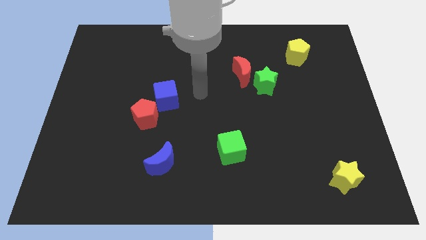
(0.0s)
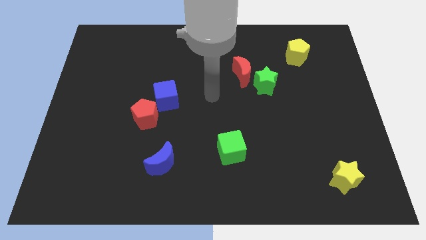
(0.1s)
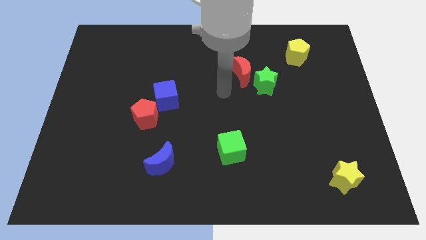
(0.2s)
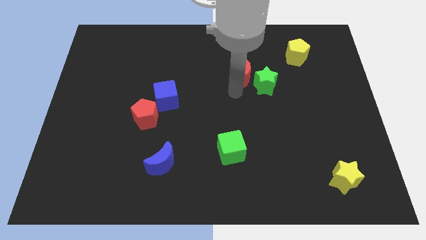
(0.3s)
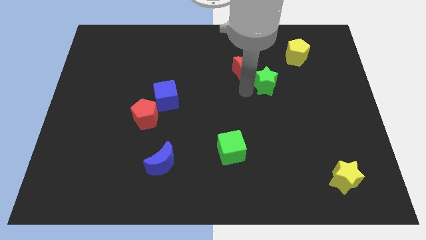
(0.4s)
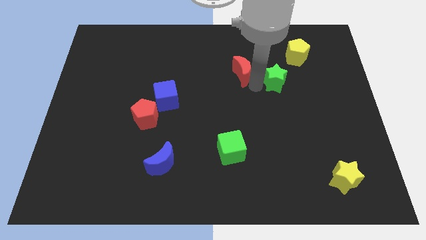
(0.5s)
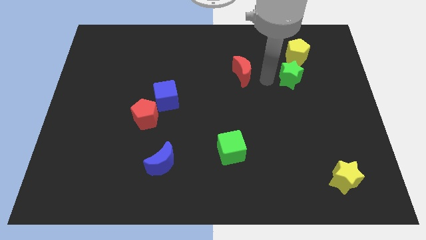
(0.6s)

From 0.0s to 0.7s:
move the red moon away from the green star

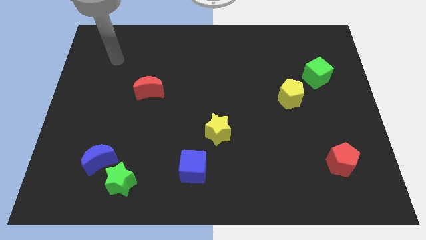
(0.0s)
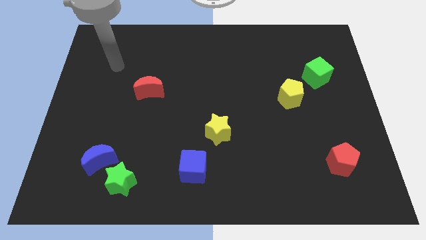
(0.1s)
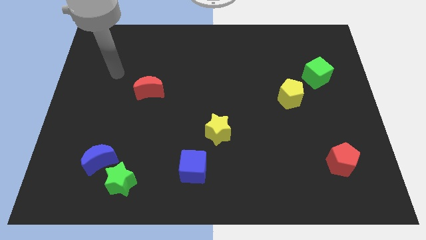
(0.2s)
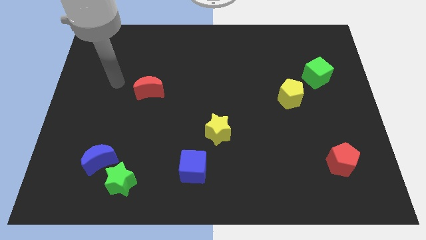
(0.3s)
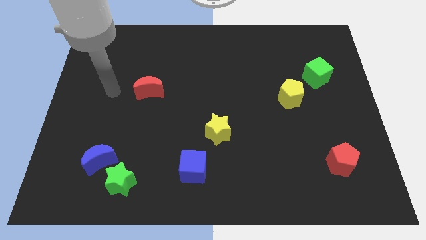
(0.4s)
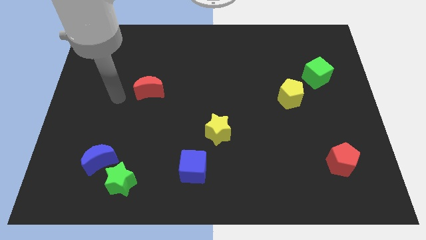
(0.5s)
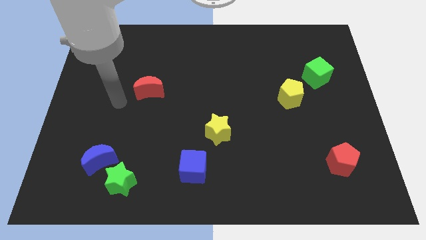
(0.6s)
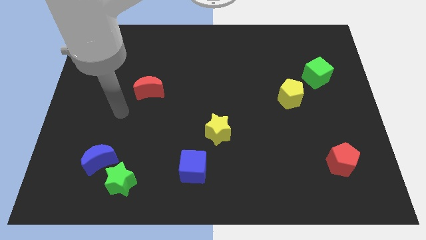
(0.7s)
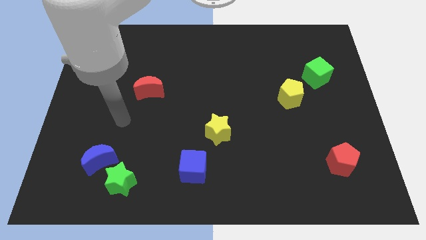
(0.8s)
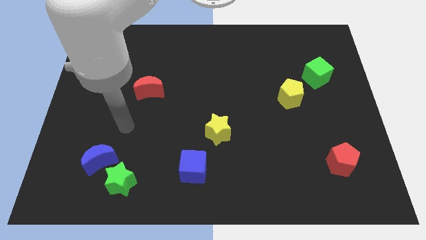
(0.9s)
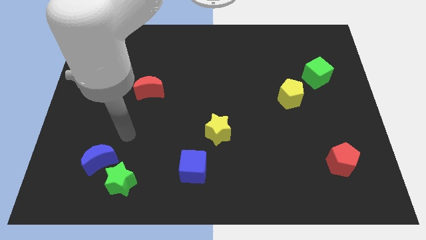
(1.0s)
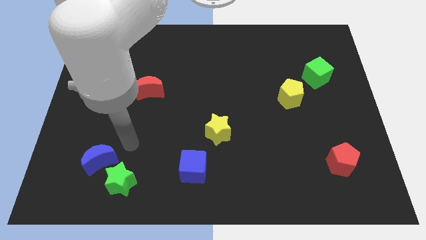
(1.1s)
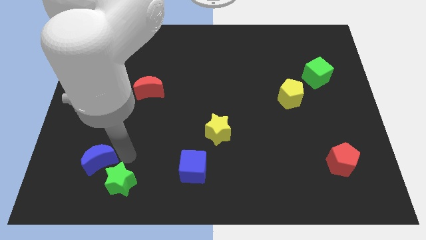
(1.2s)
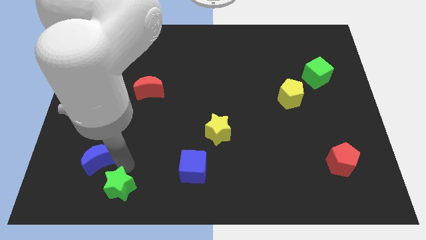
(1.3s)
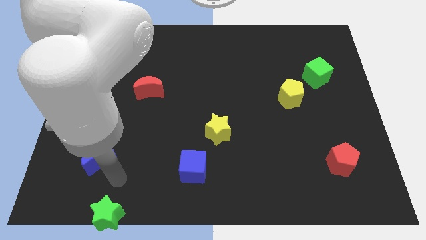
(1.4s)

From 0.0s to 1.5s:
move the blue moon away from the green star

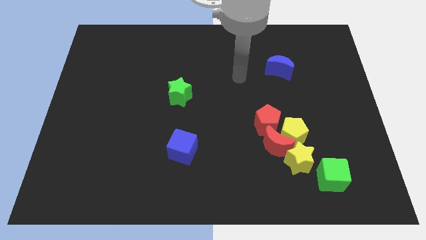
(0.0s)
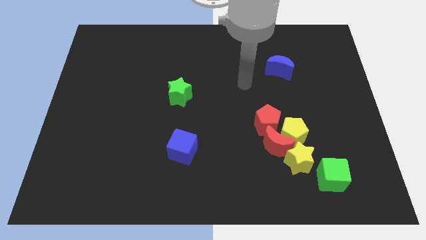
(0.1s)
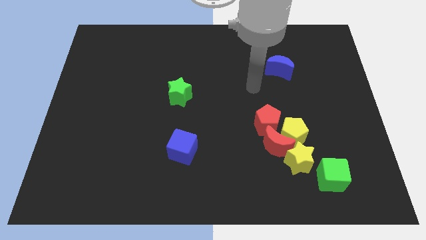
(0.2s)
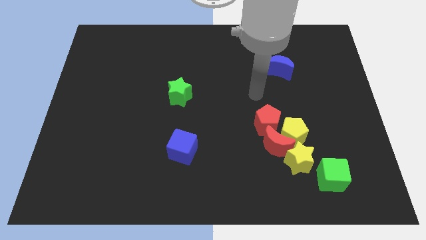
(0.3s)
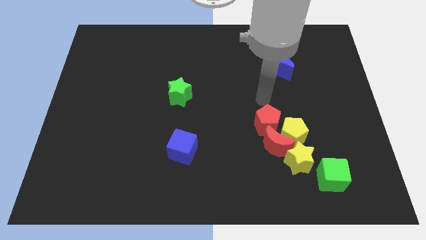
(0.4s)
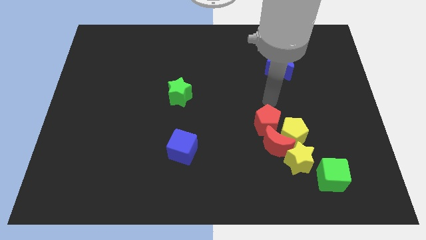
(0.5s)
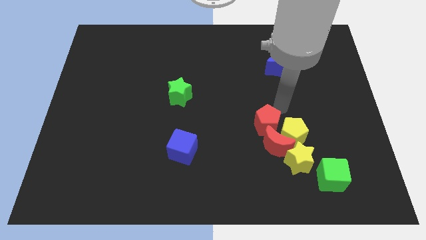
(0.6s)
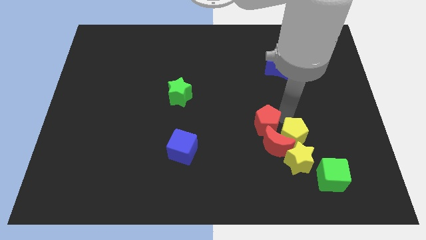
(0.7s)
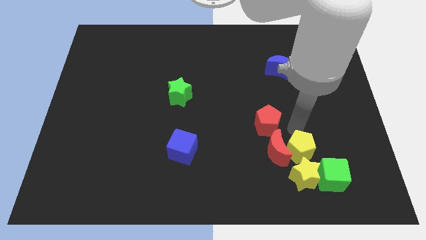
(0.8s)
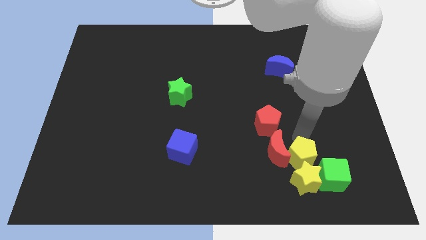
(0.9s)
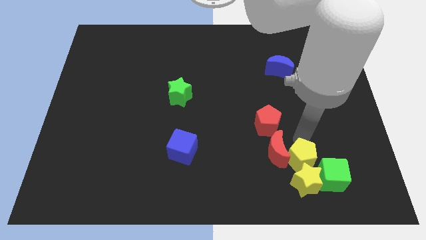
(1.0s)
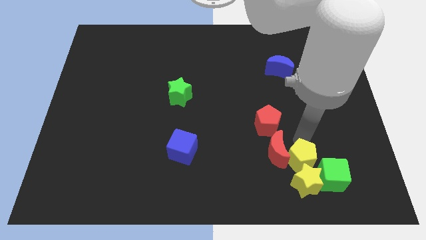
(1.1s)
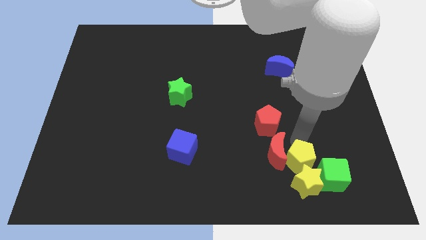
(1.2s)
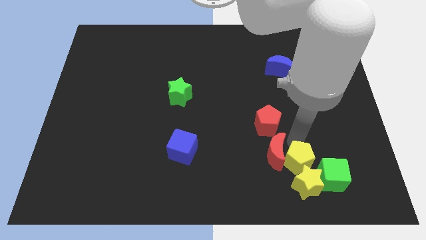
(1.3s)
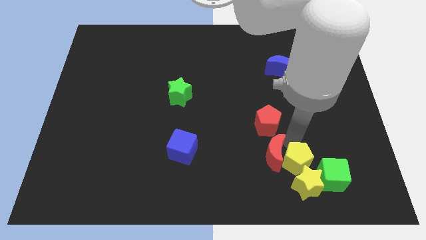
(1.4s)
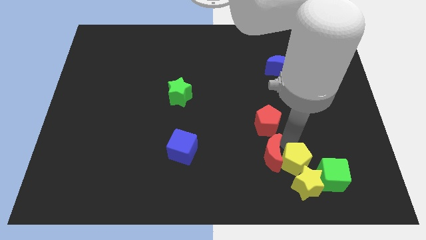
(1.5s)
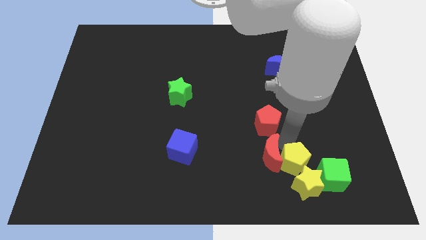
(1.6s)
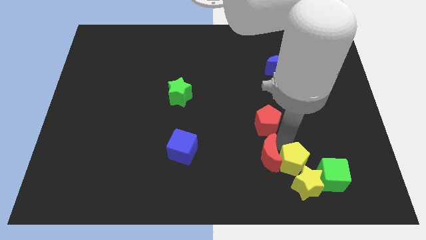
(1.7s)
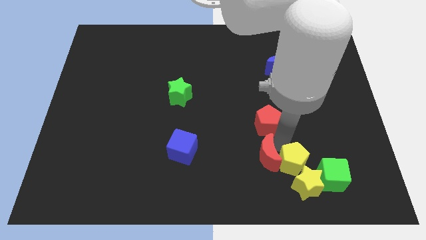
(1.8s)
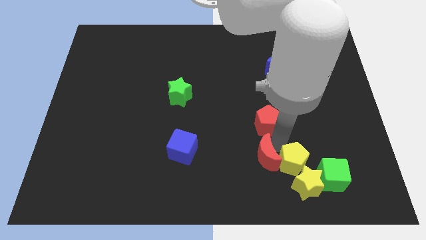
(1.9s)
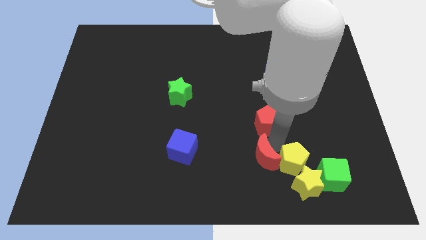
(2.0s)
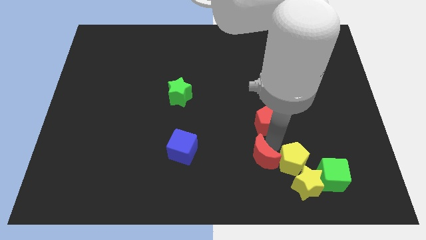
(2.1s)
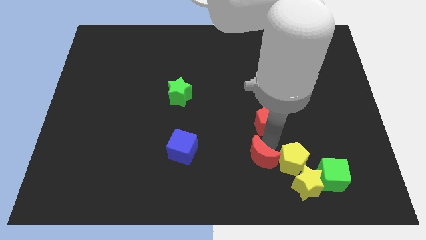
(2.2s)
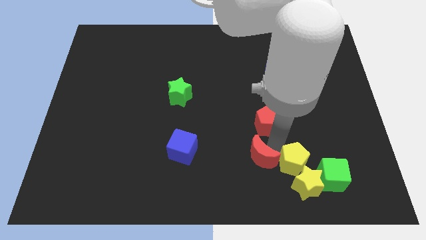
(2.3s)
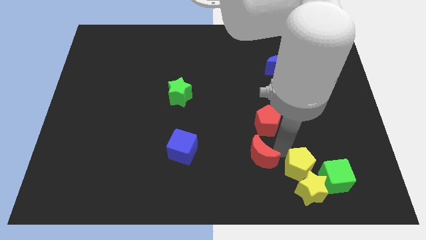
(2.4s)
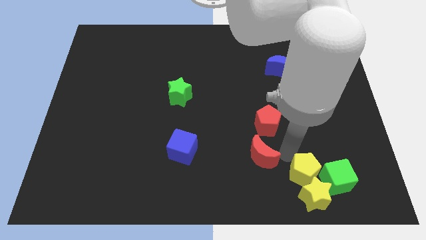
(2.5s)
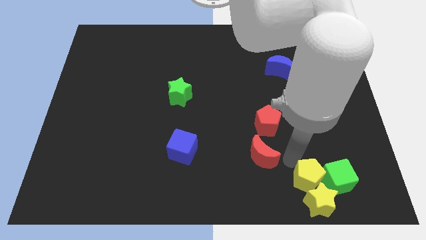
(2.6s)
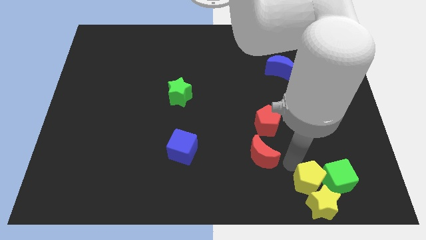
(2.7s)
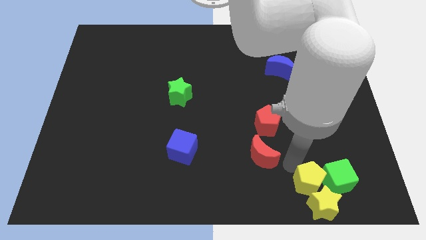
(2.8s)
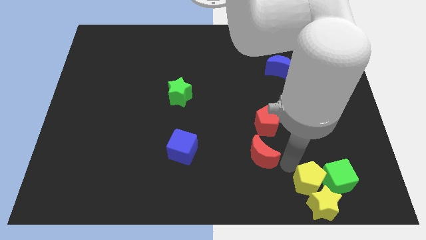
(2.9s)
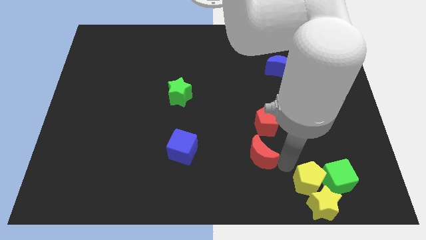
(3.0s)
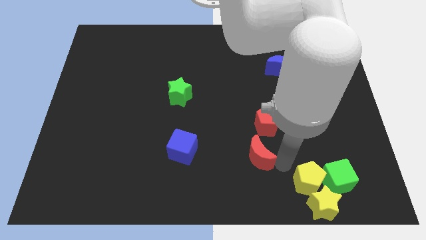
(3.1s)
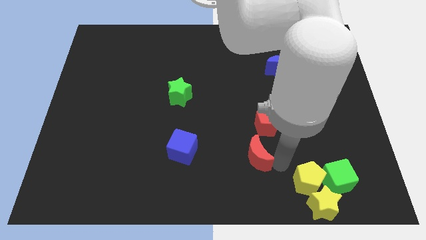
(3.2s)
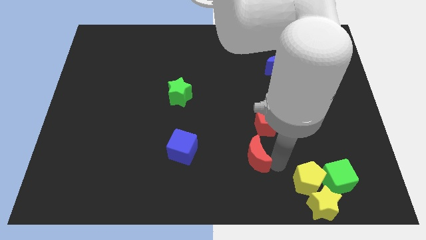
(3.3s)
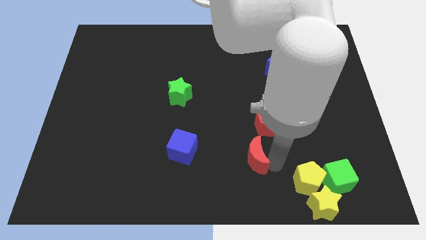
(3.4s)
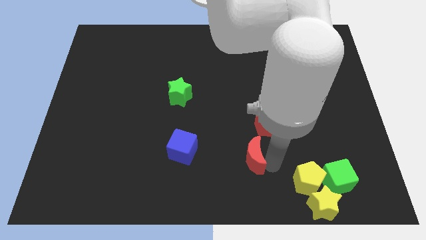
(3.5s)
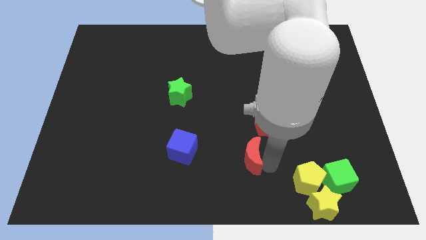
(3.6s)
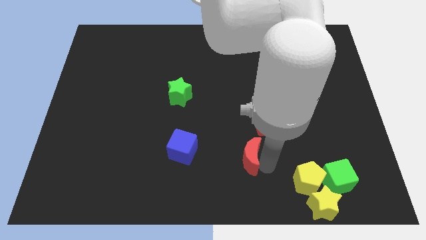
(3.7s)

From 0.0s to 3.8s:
separate the red moon from the group

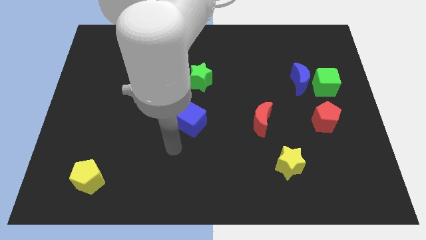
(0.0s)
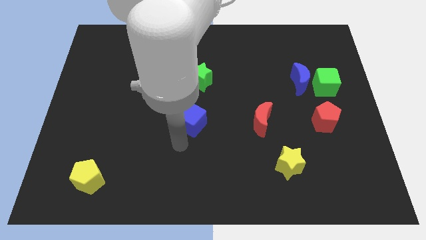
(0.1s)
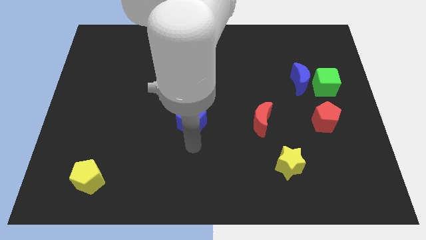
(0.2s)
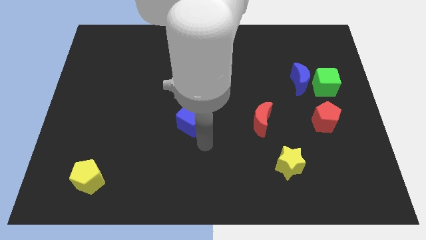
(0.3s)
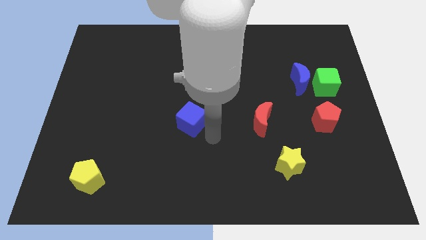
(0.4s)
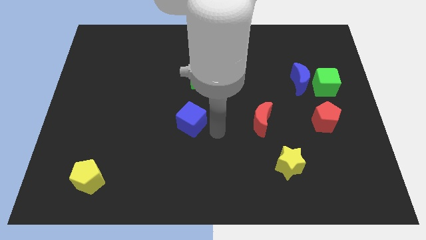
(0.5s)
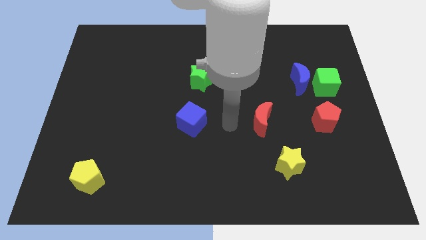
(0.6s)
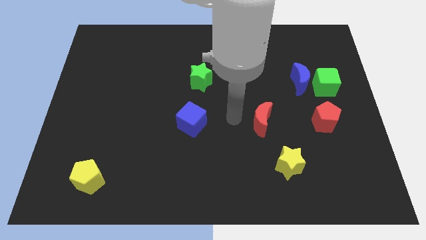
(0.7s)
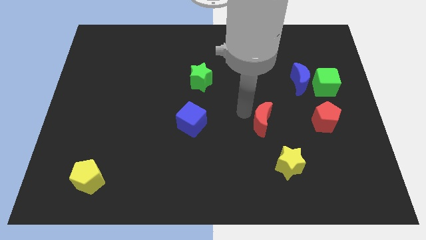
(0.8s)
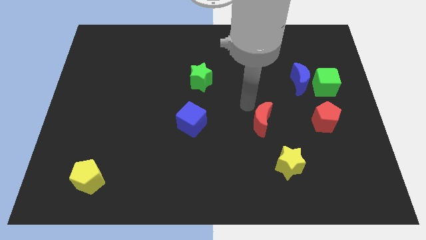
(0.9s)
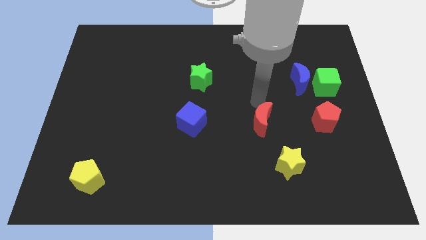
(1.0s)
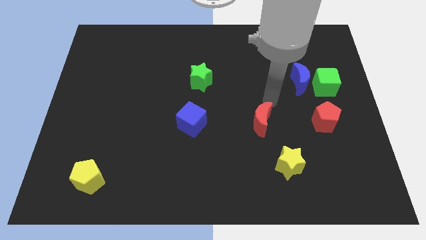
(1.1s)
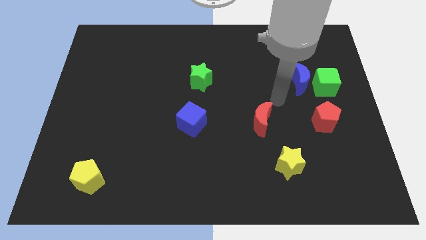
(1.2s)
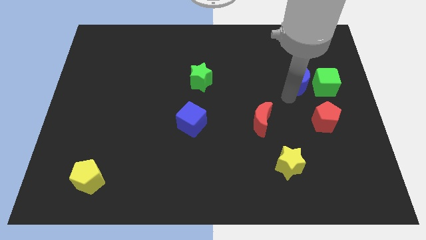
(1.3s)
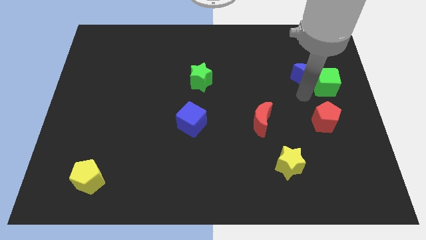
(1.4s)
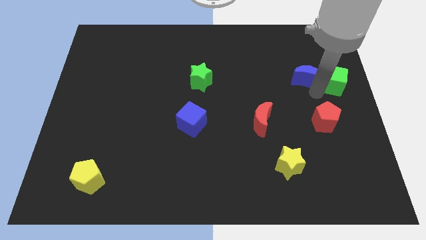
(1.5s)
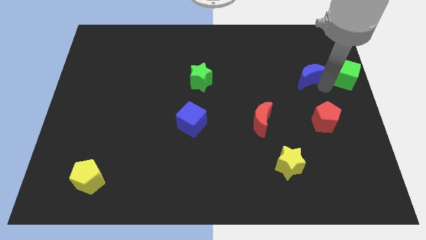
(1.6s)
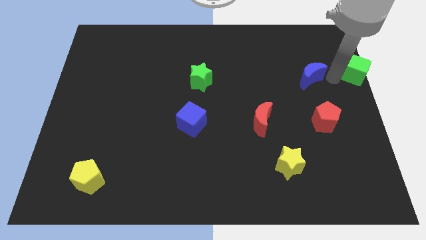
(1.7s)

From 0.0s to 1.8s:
pull the blue moon apart from the green cube

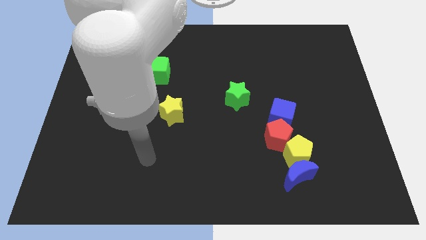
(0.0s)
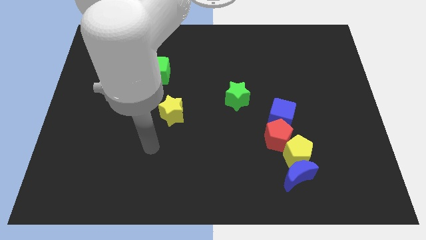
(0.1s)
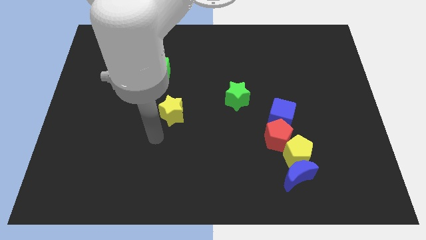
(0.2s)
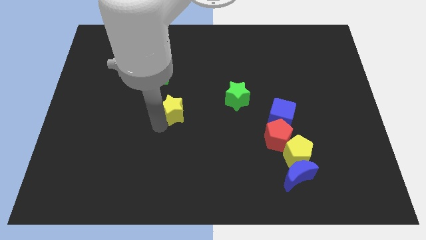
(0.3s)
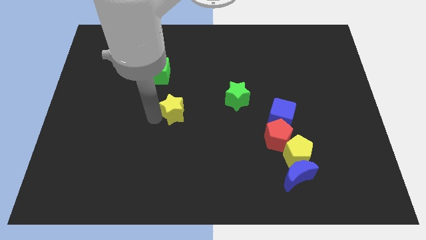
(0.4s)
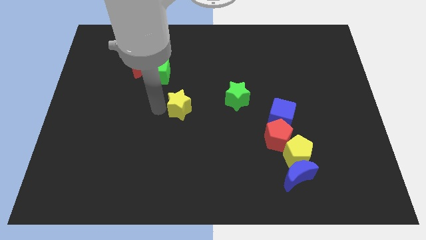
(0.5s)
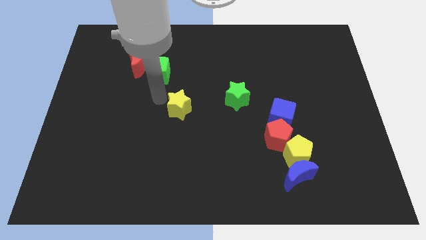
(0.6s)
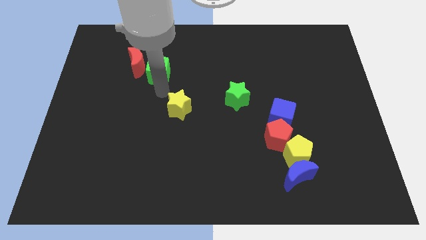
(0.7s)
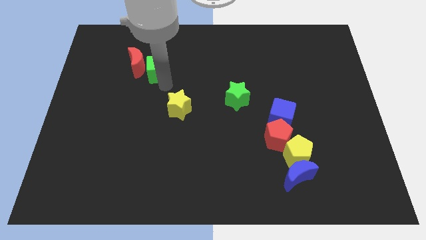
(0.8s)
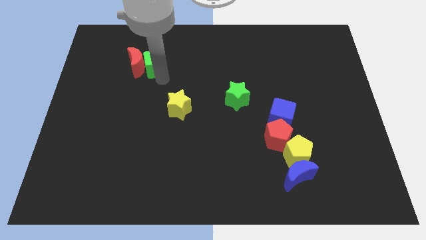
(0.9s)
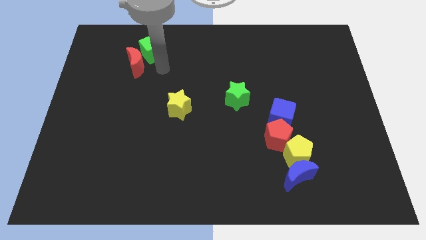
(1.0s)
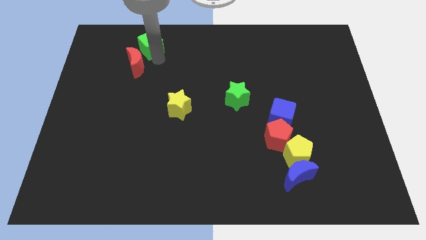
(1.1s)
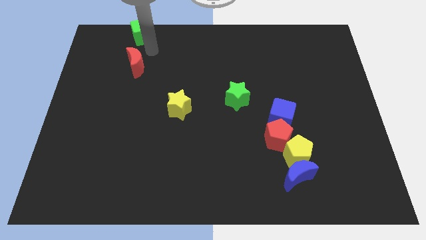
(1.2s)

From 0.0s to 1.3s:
pull the red moon apart from the green cube

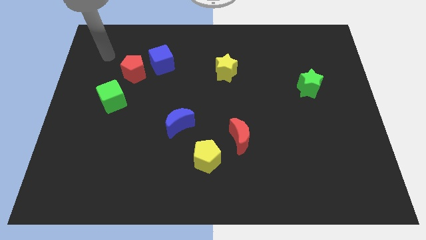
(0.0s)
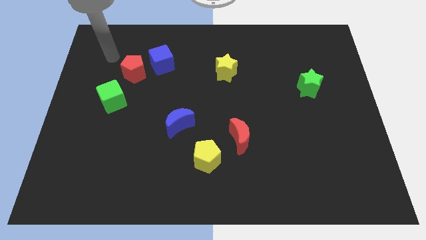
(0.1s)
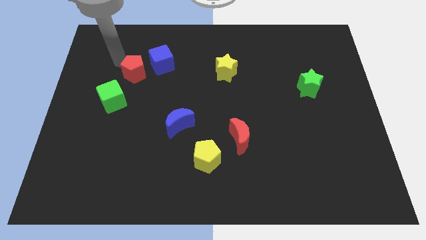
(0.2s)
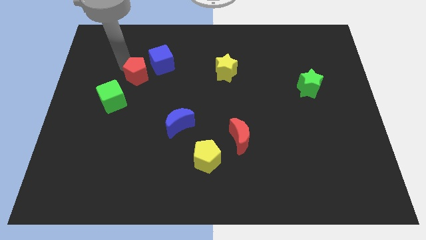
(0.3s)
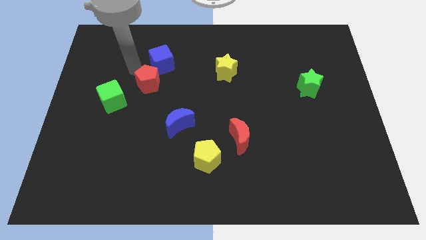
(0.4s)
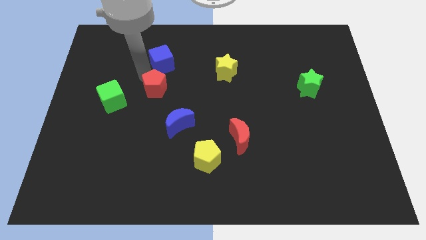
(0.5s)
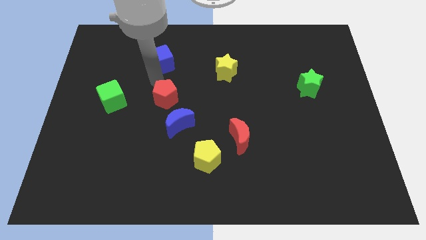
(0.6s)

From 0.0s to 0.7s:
move the blue cube away from the red pentagon
